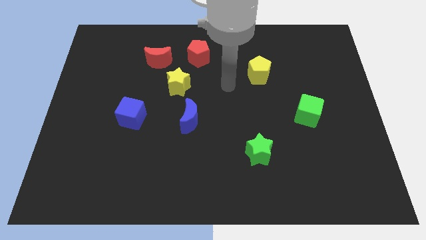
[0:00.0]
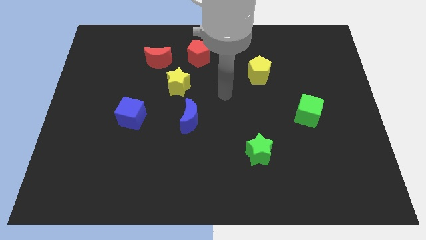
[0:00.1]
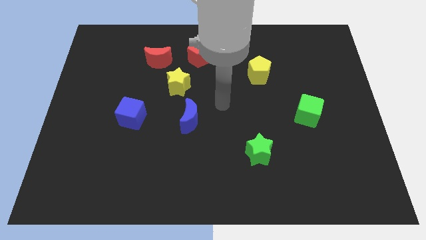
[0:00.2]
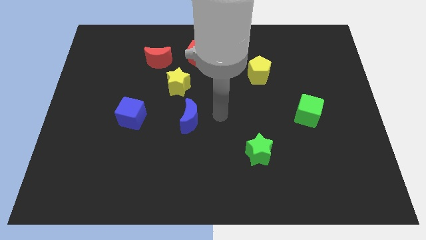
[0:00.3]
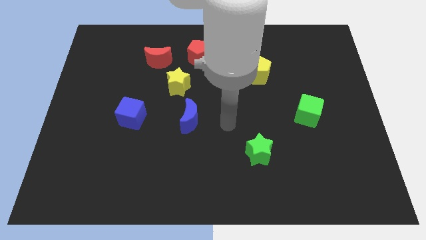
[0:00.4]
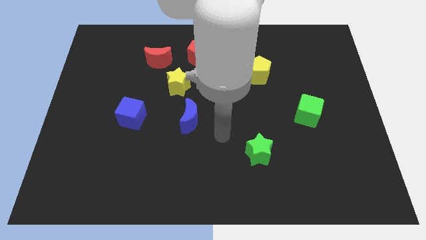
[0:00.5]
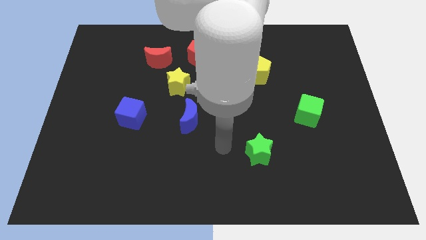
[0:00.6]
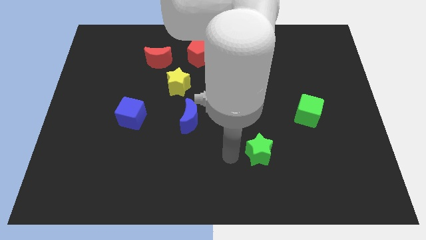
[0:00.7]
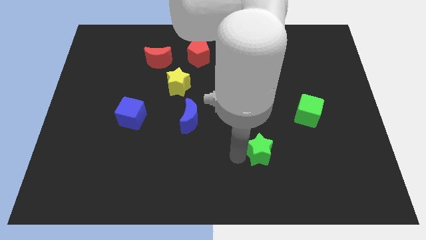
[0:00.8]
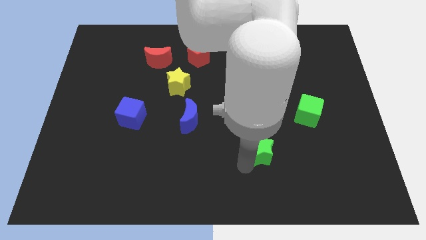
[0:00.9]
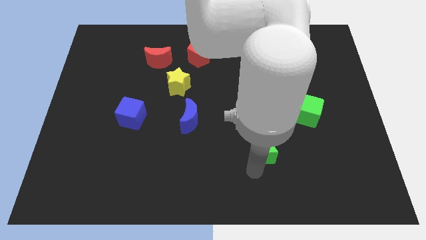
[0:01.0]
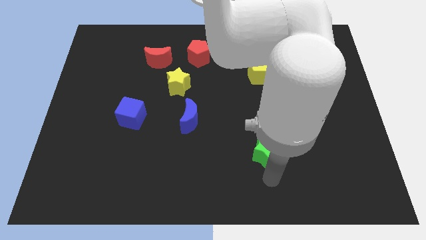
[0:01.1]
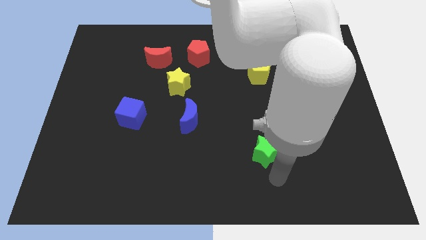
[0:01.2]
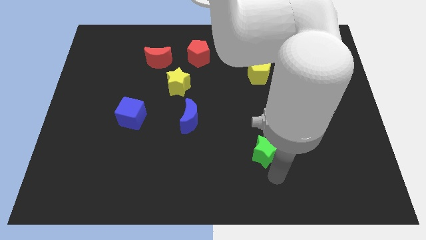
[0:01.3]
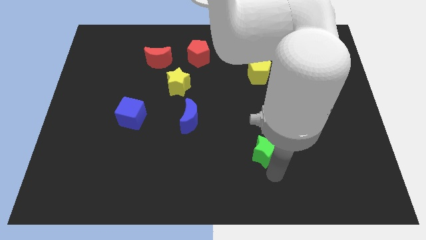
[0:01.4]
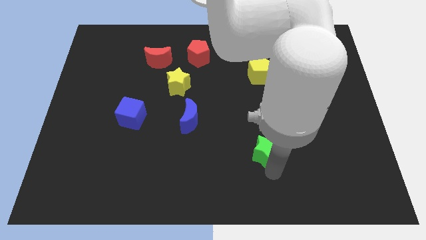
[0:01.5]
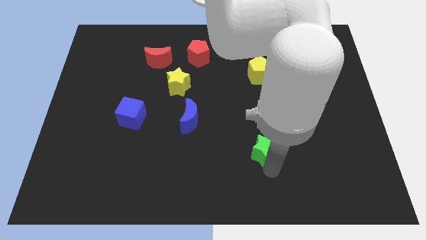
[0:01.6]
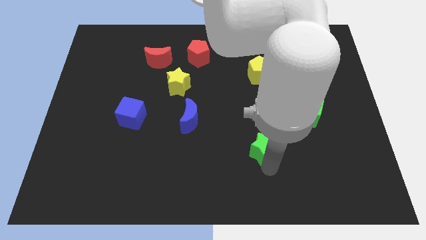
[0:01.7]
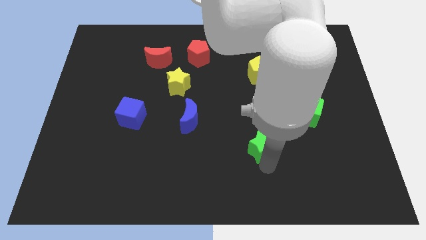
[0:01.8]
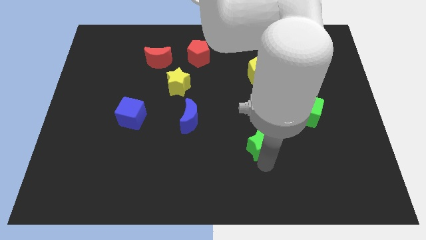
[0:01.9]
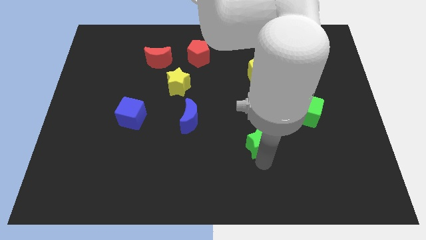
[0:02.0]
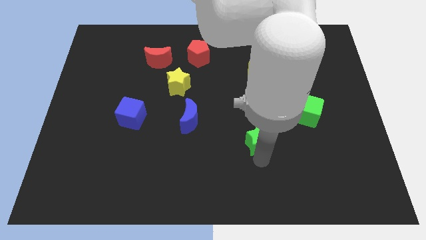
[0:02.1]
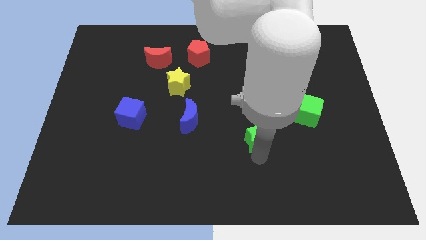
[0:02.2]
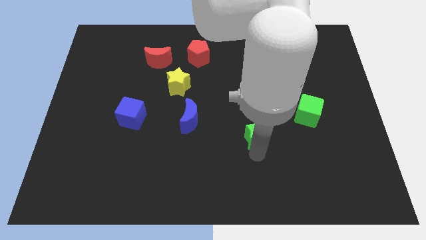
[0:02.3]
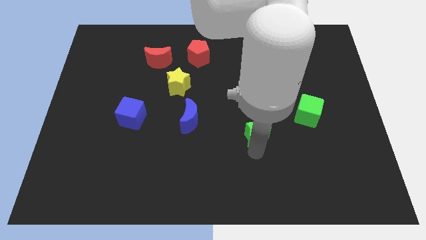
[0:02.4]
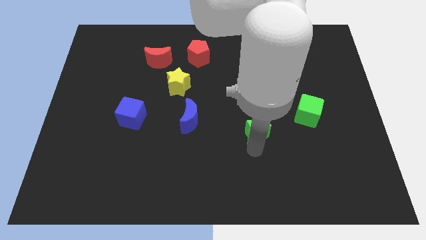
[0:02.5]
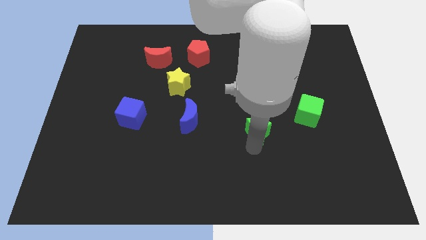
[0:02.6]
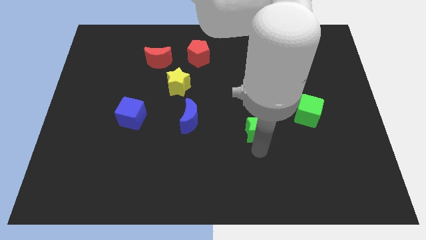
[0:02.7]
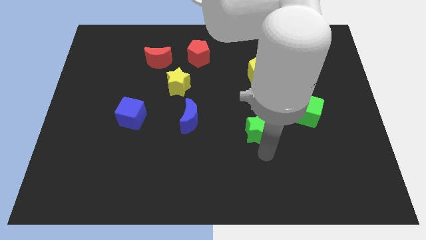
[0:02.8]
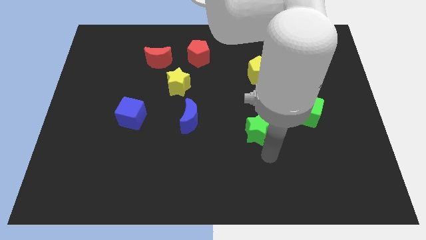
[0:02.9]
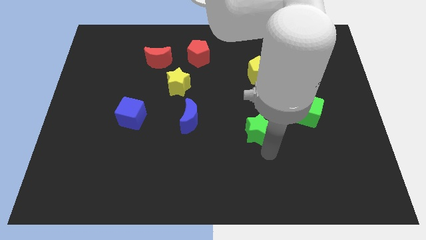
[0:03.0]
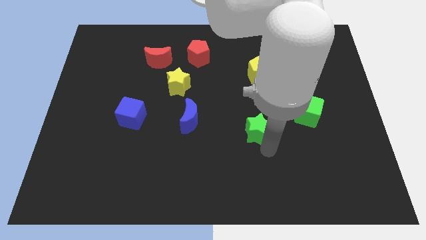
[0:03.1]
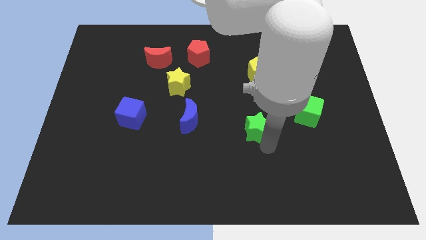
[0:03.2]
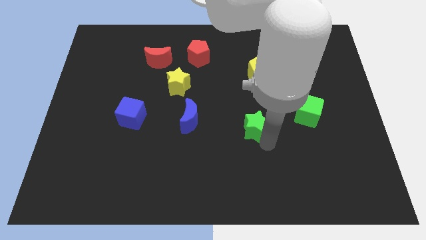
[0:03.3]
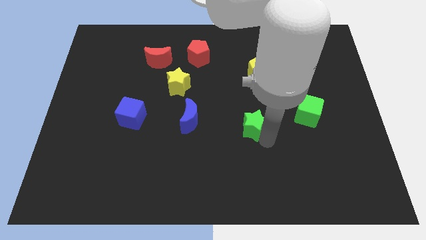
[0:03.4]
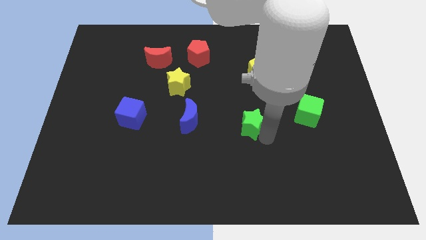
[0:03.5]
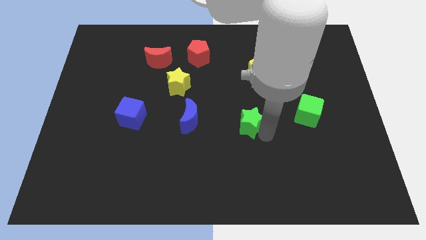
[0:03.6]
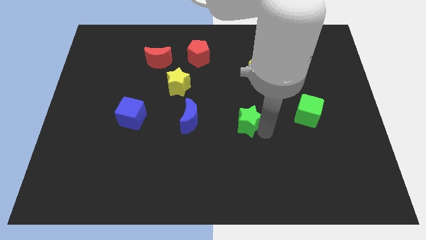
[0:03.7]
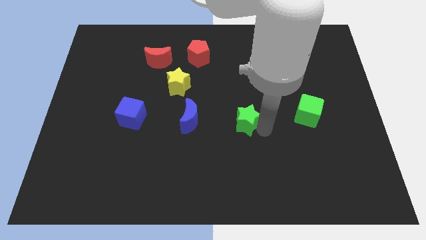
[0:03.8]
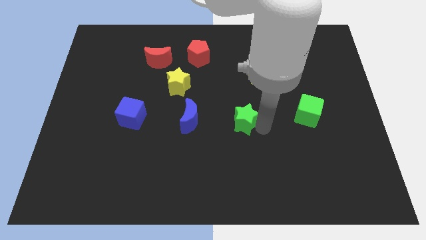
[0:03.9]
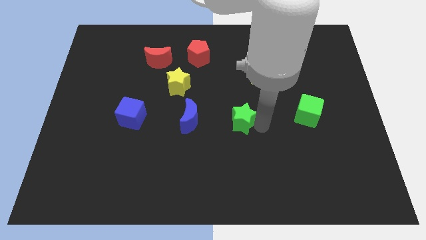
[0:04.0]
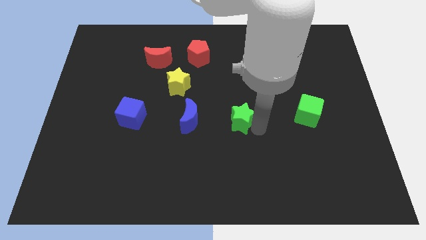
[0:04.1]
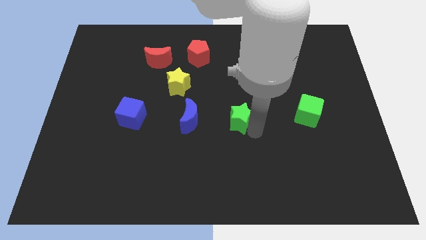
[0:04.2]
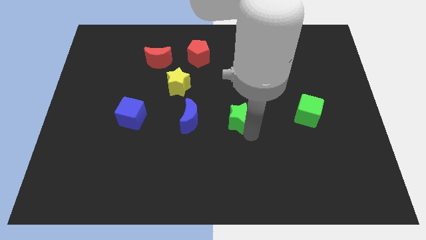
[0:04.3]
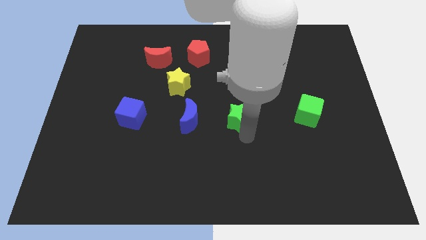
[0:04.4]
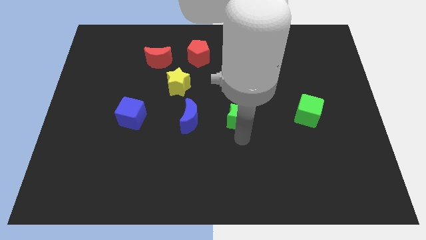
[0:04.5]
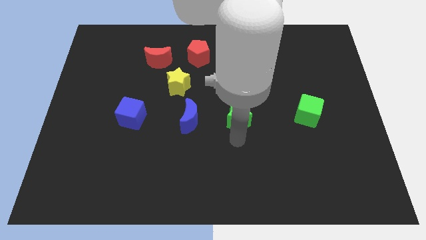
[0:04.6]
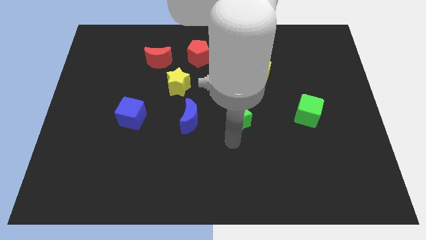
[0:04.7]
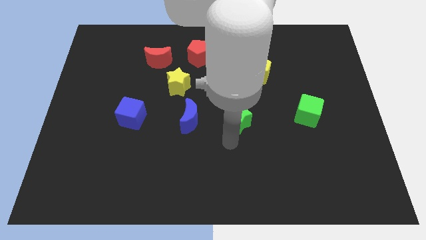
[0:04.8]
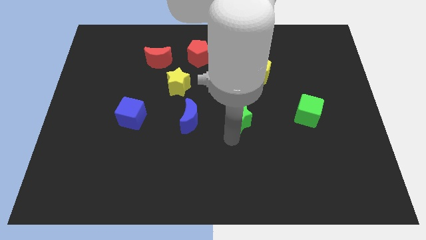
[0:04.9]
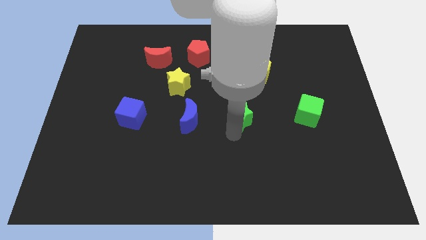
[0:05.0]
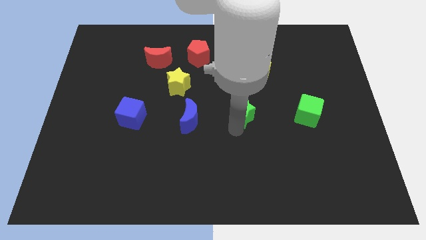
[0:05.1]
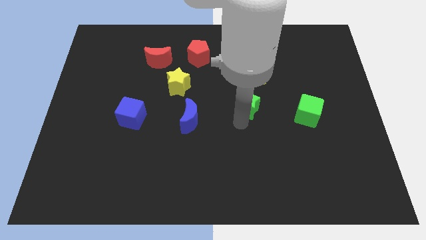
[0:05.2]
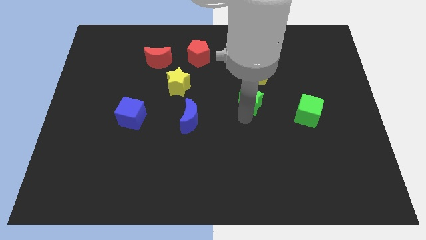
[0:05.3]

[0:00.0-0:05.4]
put the green star to the bottom left of the yellow pentagon

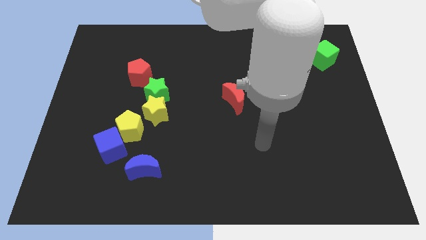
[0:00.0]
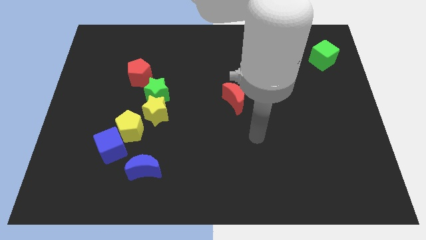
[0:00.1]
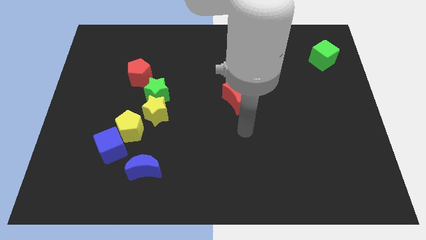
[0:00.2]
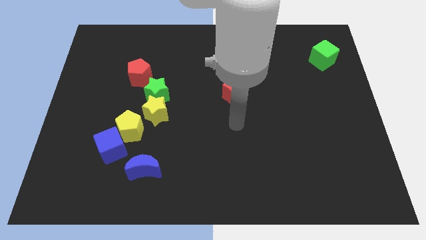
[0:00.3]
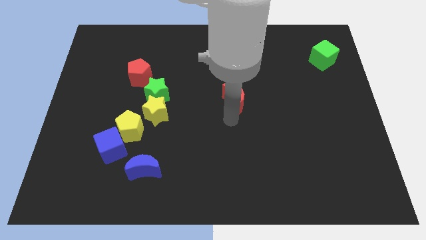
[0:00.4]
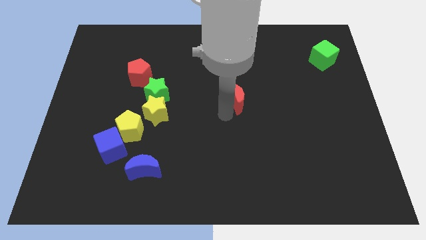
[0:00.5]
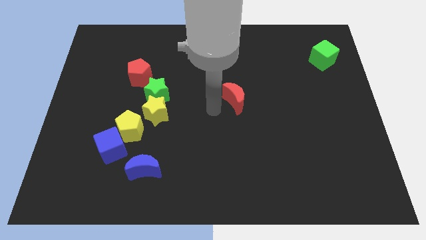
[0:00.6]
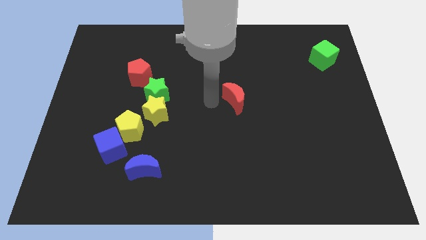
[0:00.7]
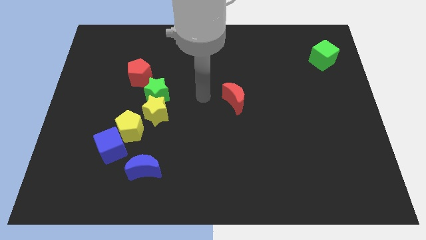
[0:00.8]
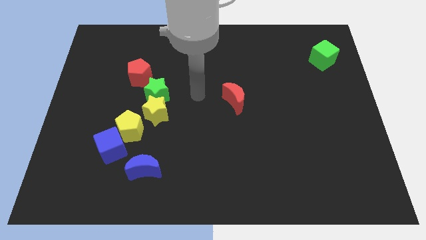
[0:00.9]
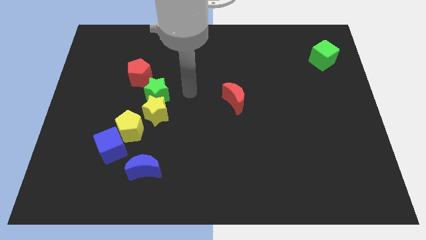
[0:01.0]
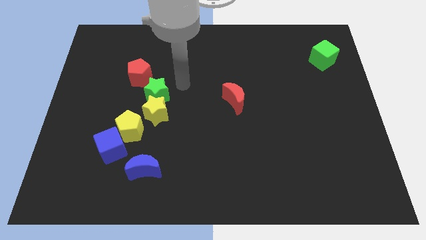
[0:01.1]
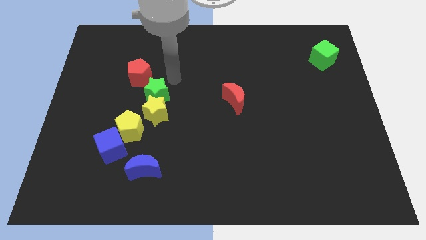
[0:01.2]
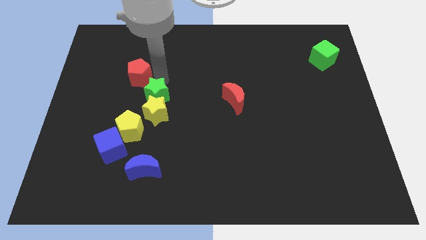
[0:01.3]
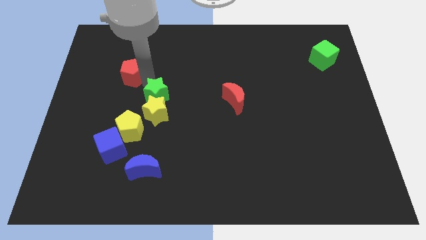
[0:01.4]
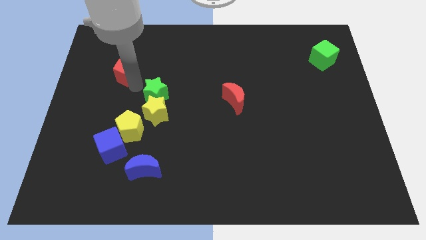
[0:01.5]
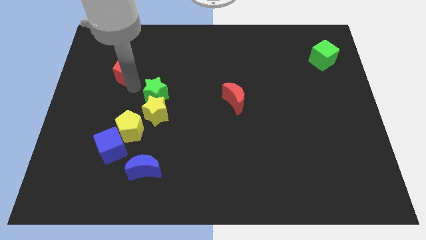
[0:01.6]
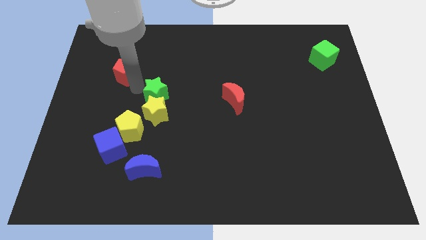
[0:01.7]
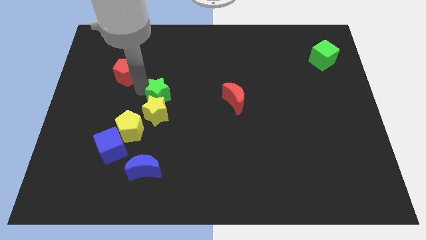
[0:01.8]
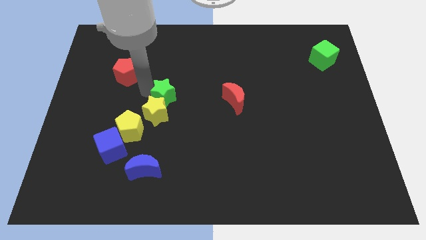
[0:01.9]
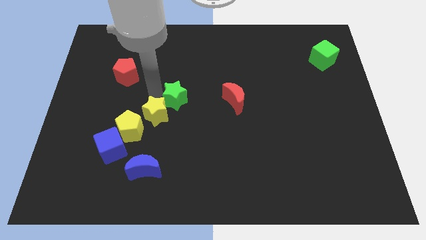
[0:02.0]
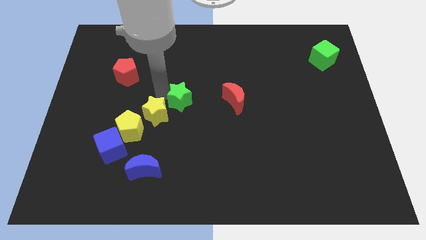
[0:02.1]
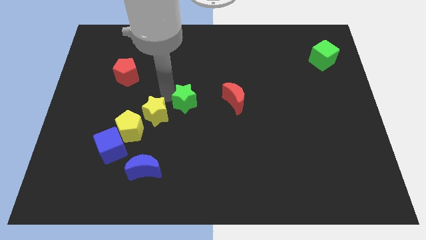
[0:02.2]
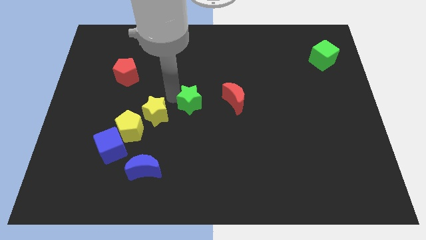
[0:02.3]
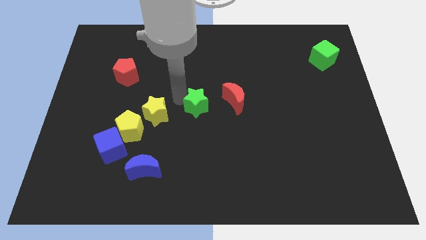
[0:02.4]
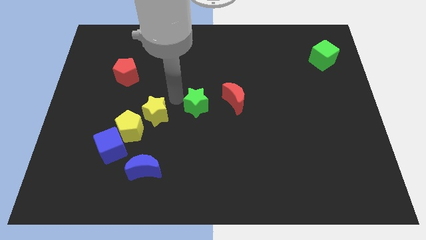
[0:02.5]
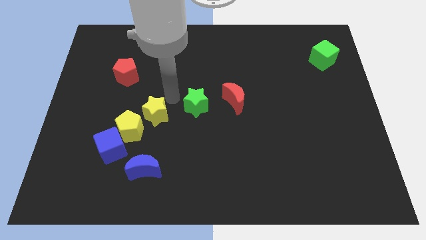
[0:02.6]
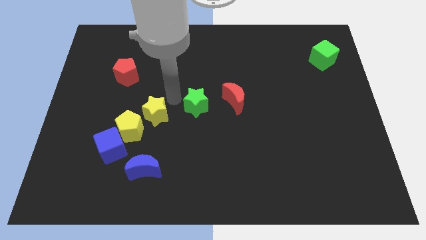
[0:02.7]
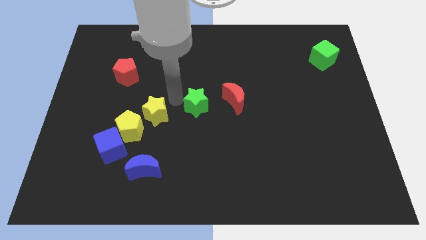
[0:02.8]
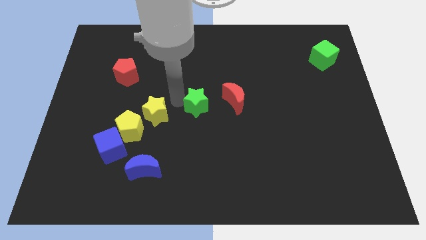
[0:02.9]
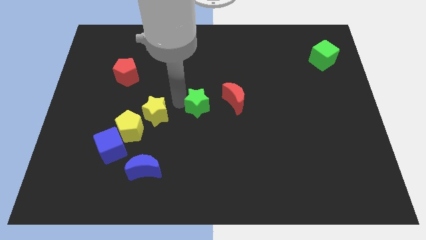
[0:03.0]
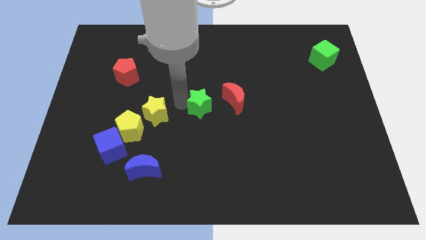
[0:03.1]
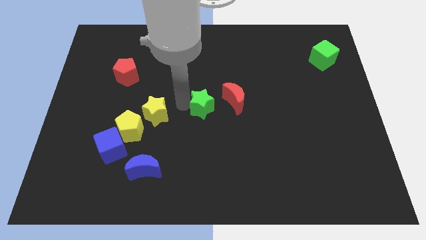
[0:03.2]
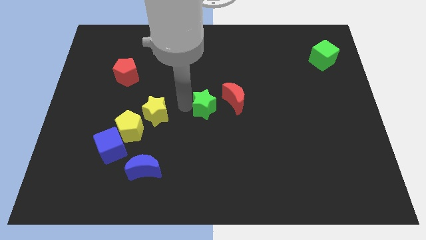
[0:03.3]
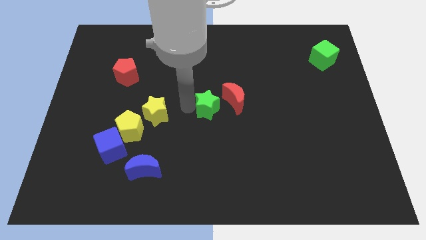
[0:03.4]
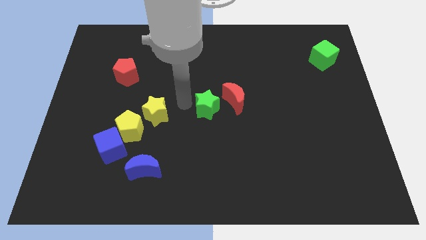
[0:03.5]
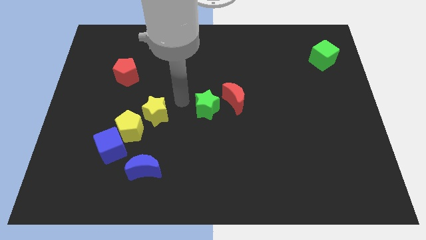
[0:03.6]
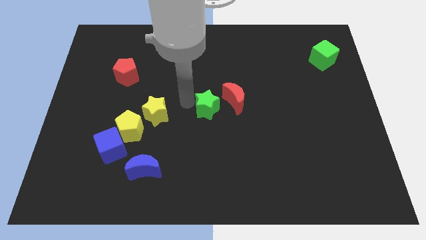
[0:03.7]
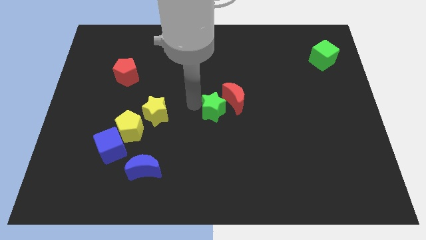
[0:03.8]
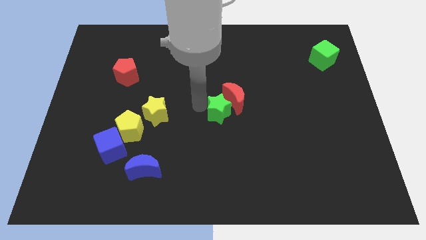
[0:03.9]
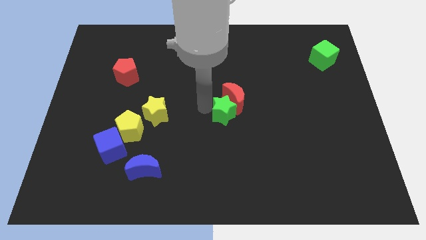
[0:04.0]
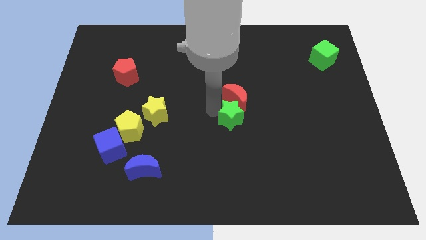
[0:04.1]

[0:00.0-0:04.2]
move the green star to the bottom right of the red moon
